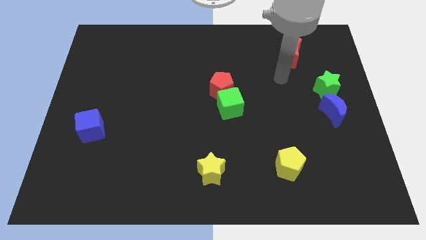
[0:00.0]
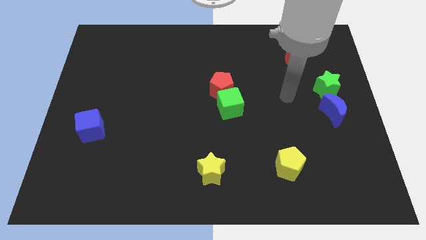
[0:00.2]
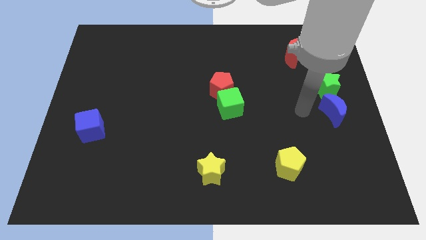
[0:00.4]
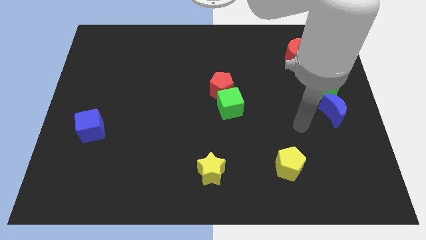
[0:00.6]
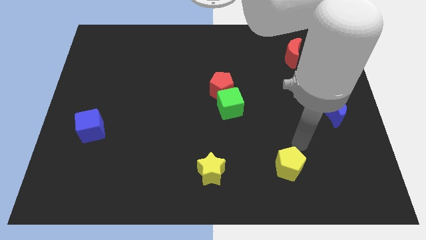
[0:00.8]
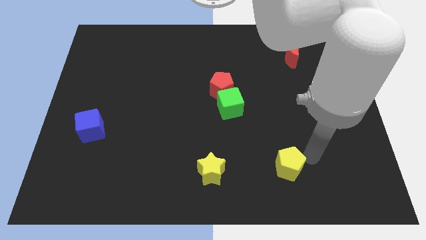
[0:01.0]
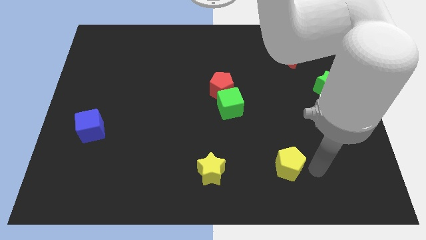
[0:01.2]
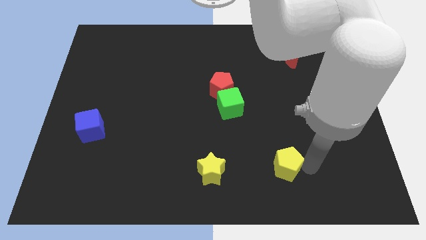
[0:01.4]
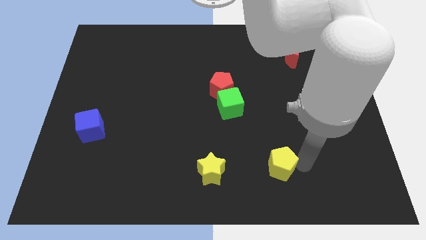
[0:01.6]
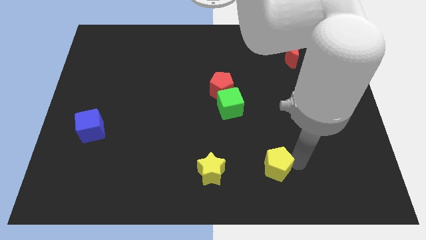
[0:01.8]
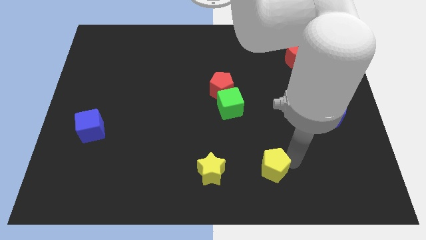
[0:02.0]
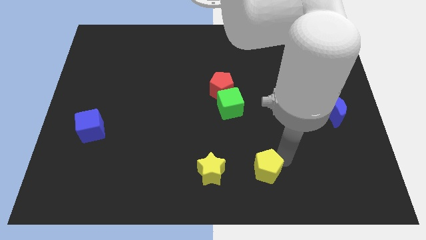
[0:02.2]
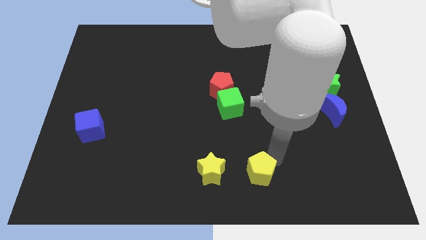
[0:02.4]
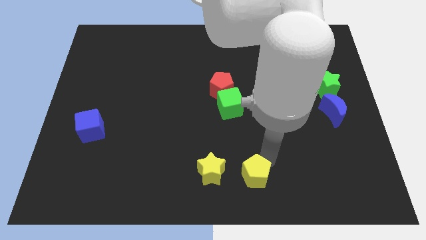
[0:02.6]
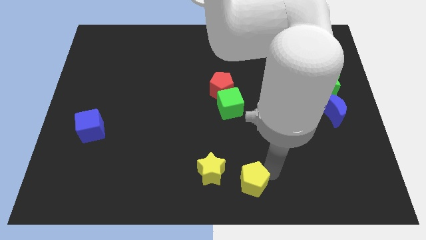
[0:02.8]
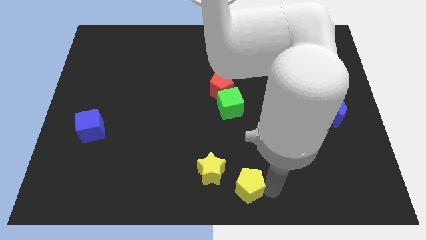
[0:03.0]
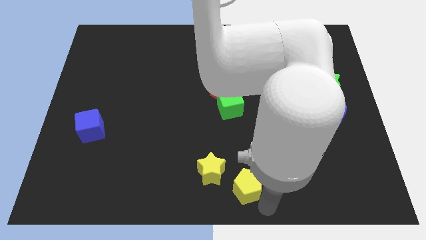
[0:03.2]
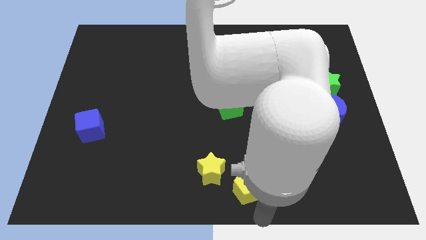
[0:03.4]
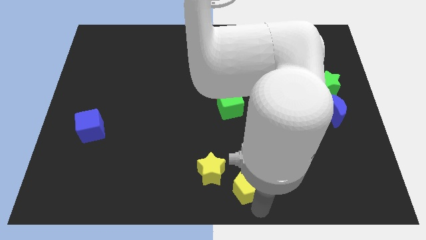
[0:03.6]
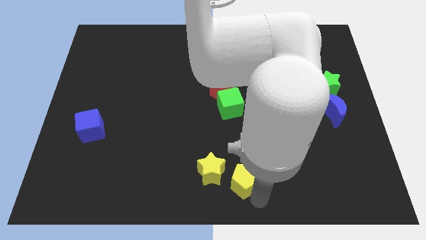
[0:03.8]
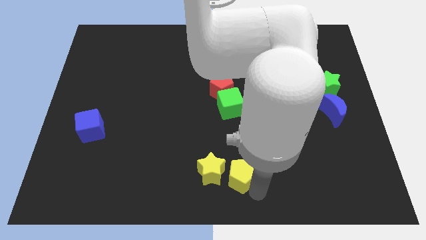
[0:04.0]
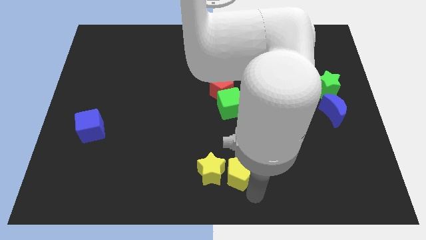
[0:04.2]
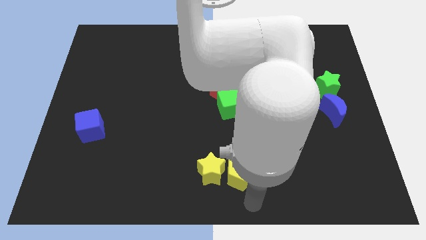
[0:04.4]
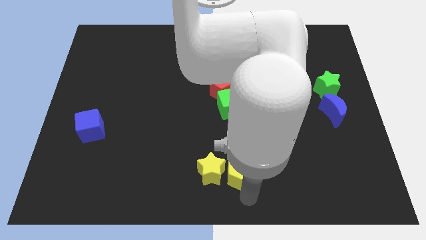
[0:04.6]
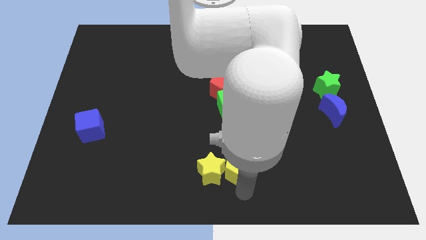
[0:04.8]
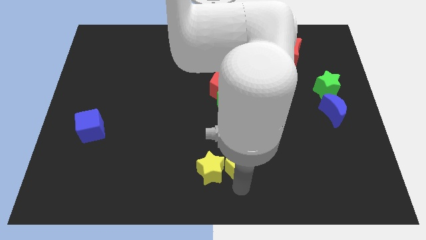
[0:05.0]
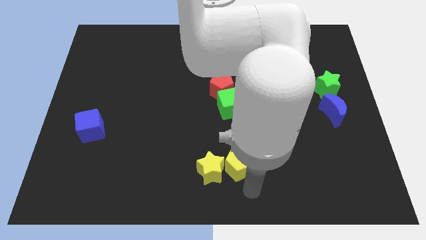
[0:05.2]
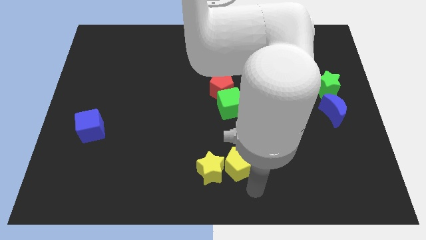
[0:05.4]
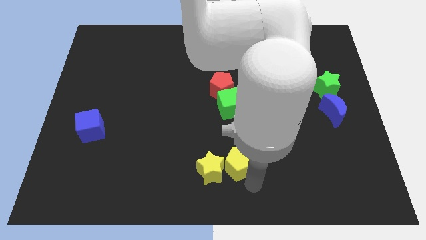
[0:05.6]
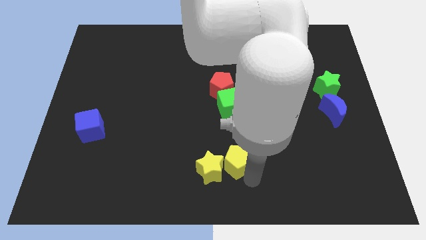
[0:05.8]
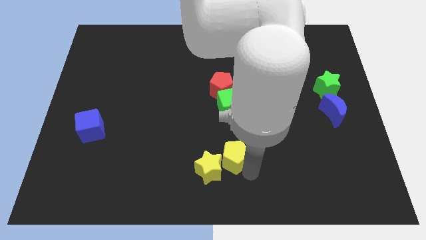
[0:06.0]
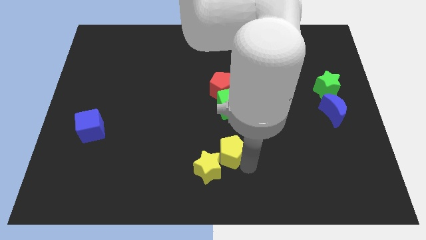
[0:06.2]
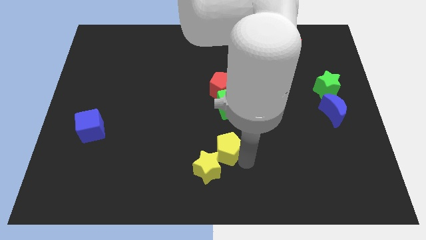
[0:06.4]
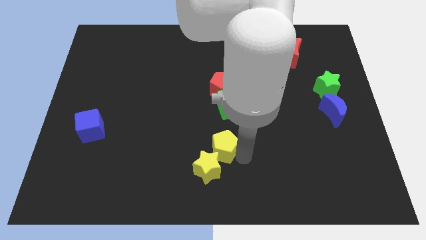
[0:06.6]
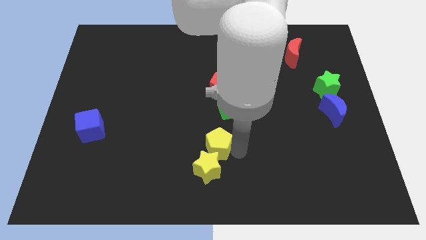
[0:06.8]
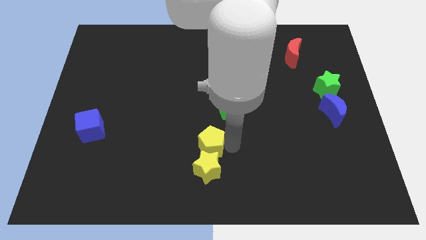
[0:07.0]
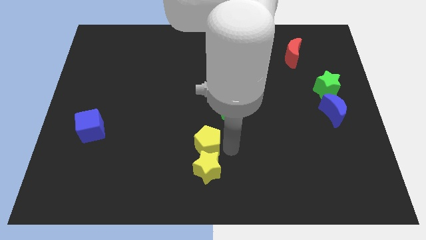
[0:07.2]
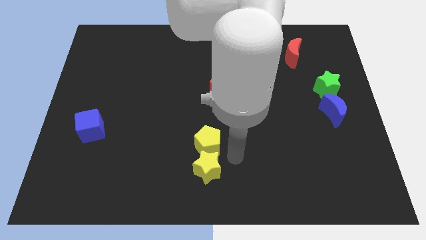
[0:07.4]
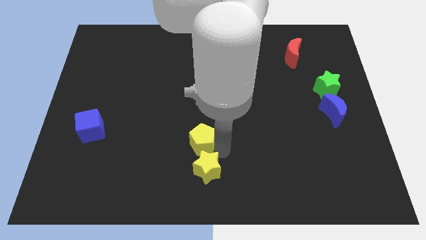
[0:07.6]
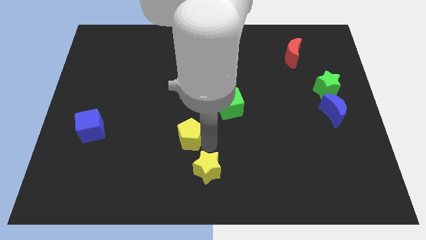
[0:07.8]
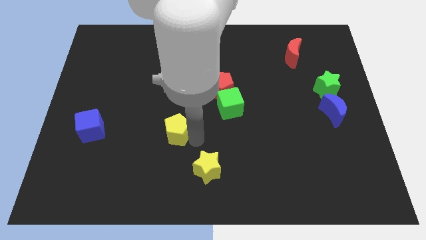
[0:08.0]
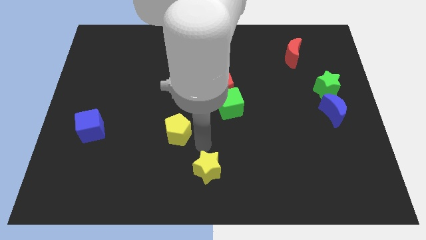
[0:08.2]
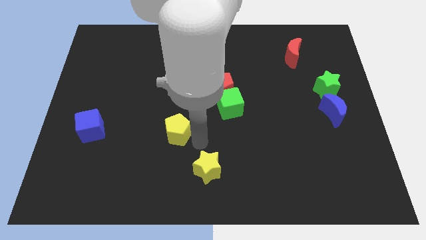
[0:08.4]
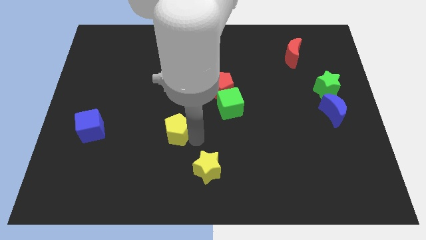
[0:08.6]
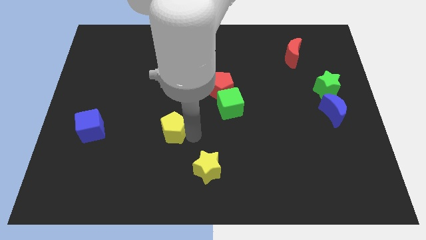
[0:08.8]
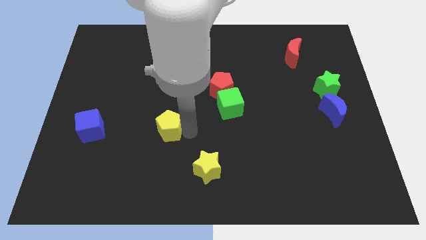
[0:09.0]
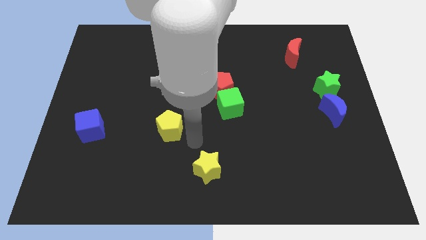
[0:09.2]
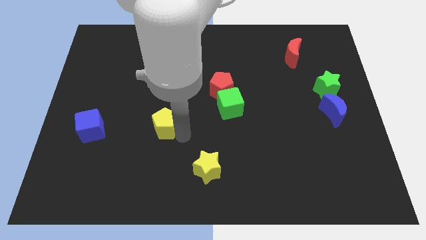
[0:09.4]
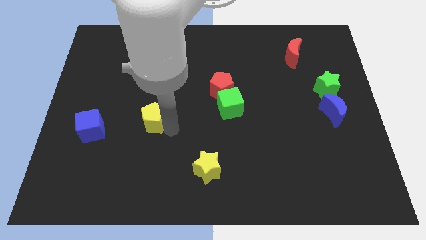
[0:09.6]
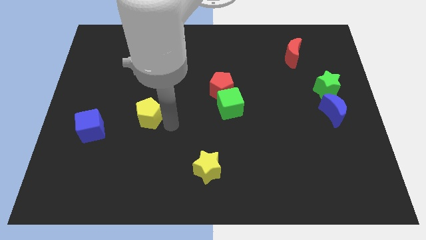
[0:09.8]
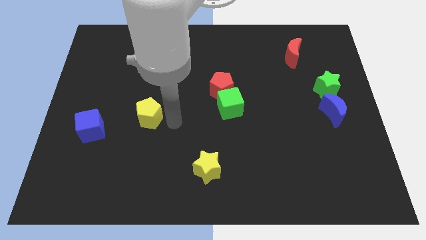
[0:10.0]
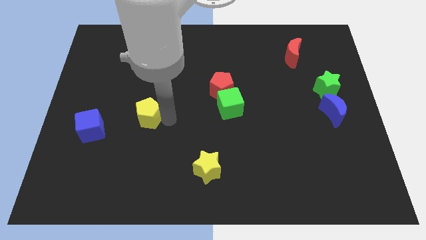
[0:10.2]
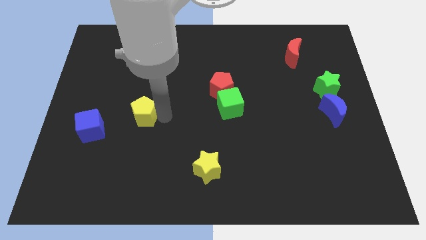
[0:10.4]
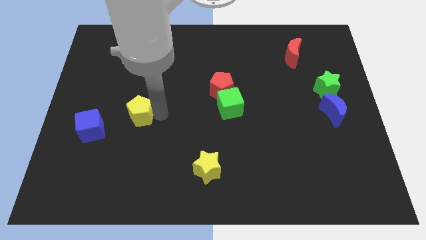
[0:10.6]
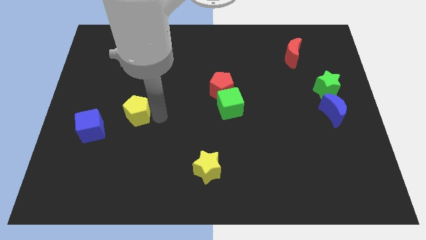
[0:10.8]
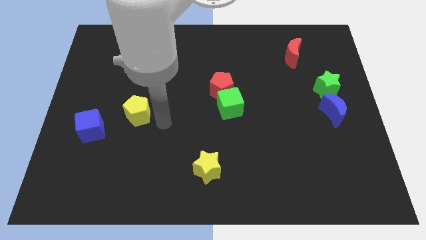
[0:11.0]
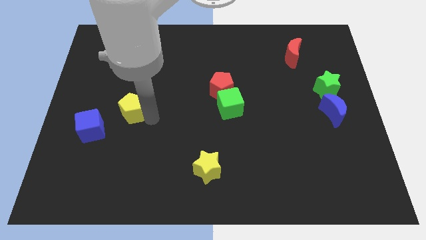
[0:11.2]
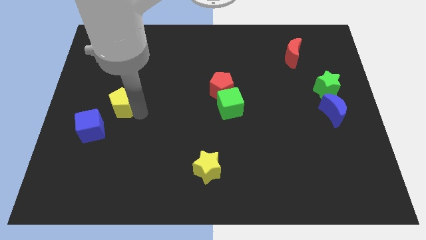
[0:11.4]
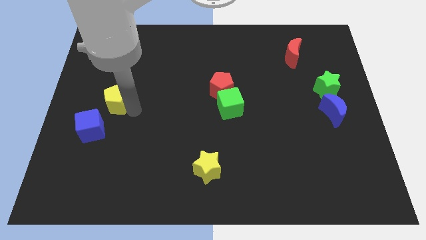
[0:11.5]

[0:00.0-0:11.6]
move the yellow pentagon to the top side of the blue cube

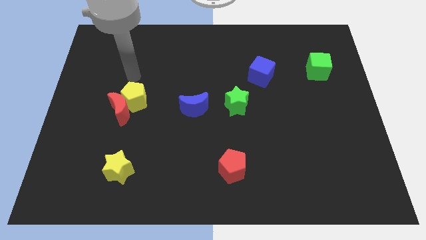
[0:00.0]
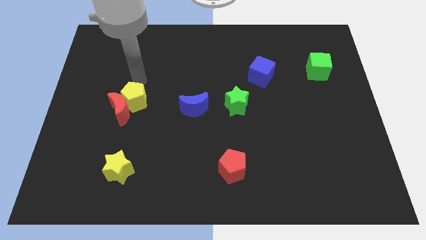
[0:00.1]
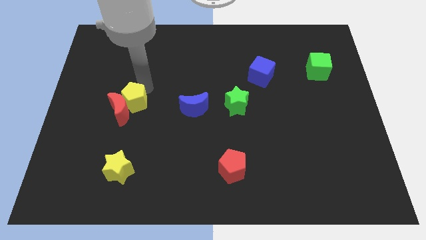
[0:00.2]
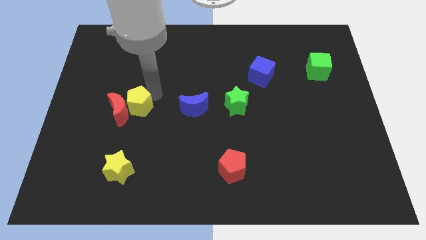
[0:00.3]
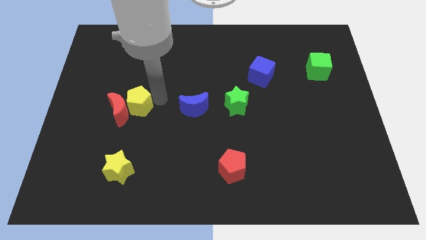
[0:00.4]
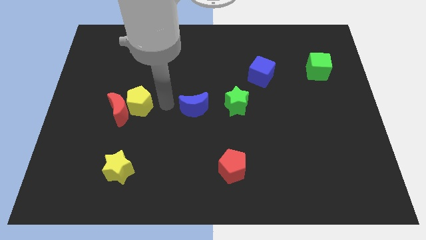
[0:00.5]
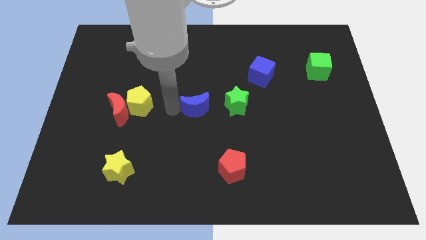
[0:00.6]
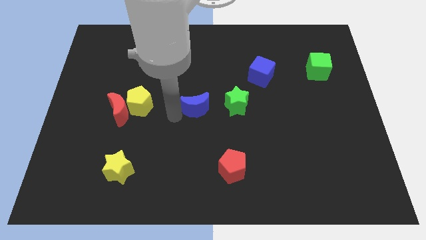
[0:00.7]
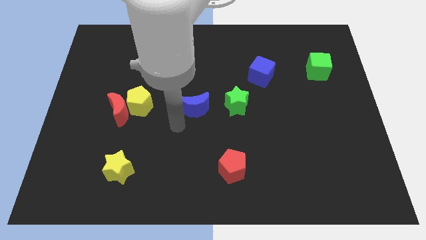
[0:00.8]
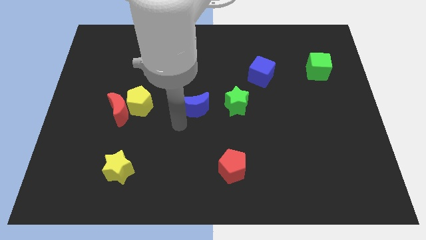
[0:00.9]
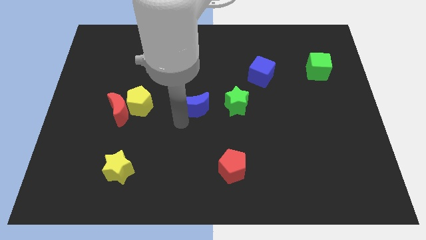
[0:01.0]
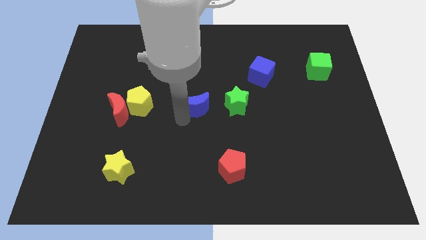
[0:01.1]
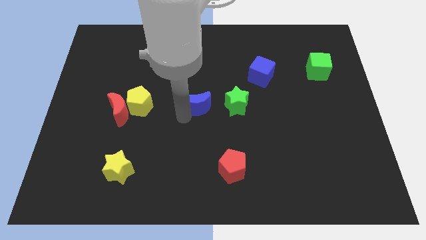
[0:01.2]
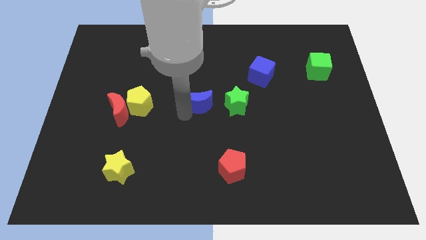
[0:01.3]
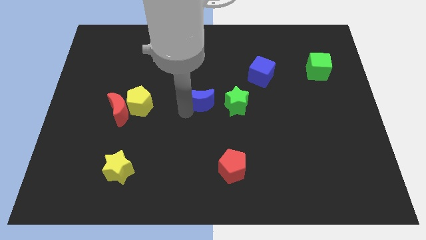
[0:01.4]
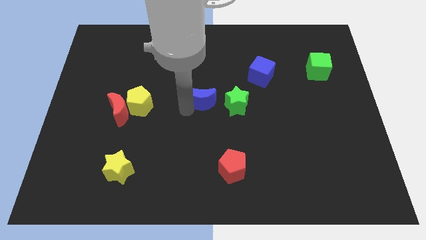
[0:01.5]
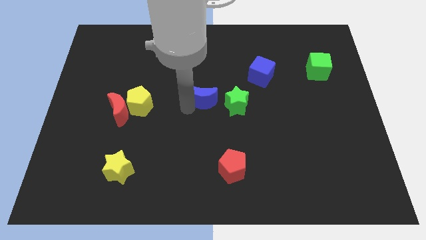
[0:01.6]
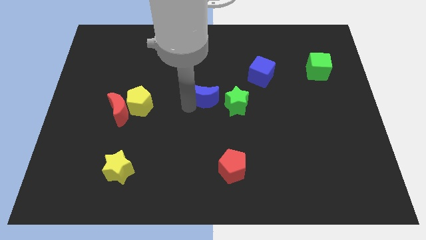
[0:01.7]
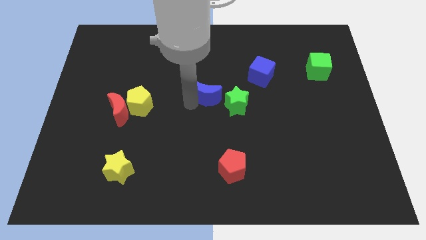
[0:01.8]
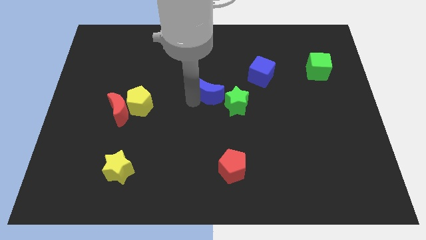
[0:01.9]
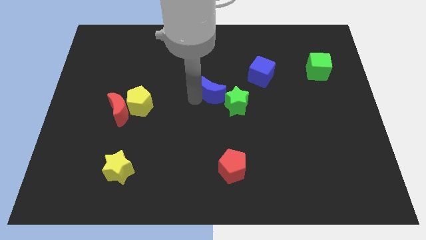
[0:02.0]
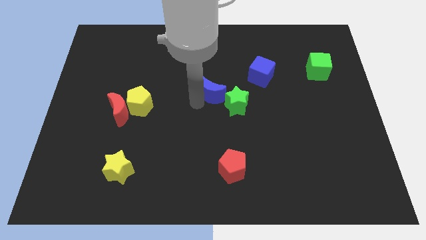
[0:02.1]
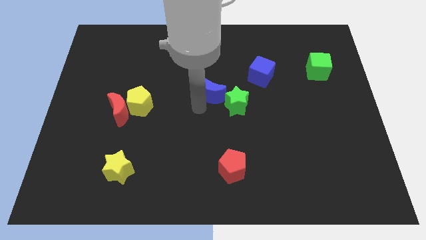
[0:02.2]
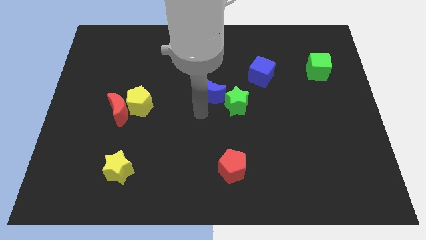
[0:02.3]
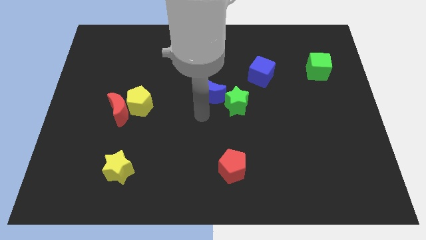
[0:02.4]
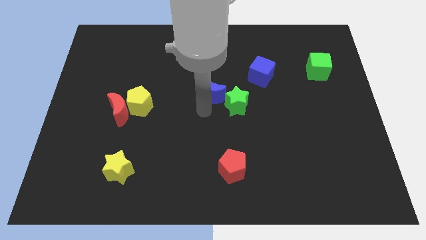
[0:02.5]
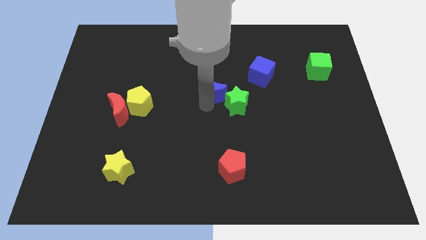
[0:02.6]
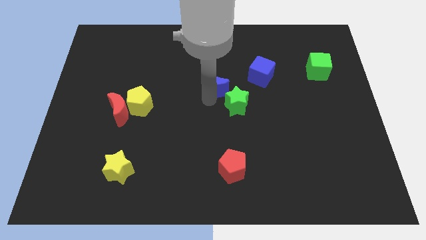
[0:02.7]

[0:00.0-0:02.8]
move the blue moon left of the blue cube
